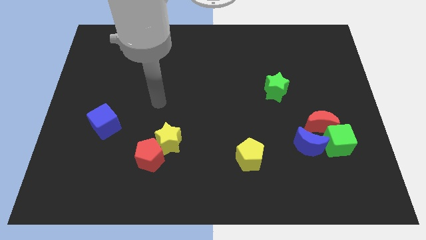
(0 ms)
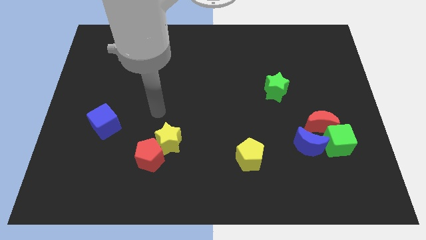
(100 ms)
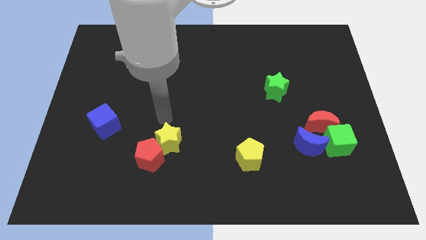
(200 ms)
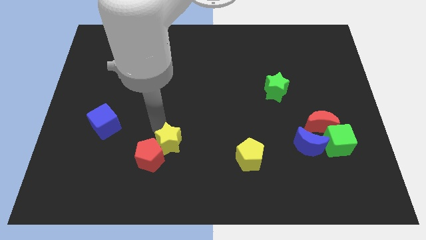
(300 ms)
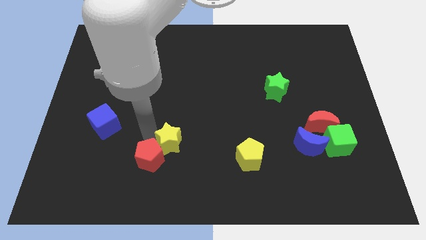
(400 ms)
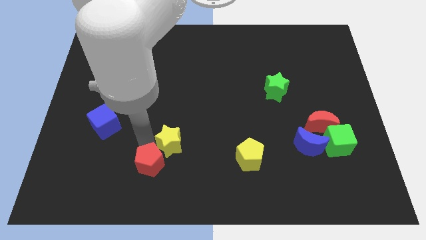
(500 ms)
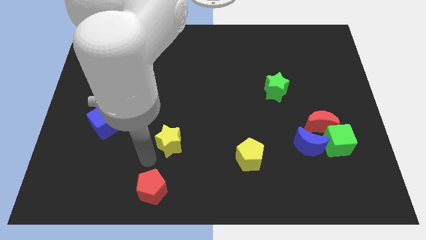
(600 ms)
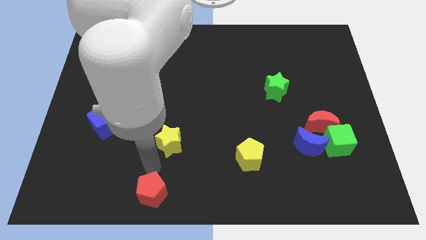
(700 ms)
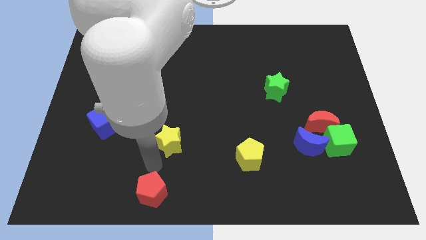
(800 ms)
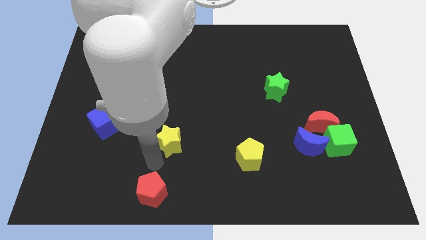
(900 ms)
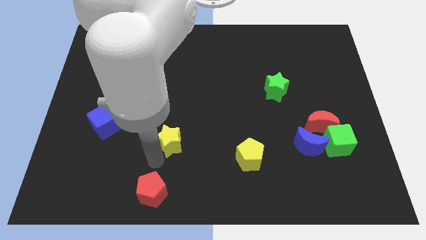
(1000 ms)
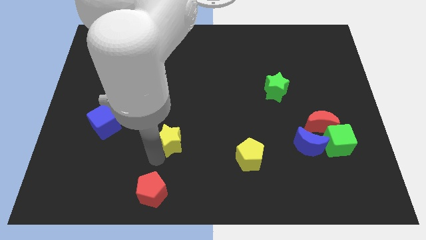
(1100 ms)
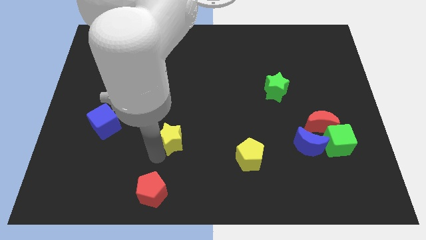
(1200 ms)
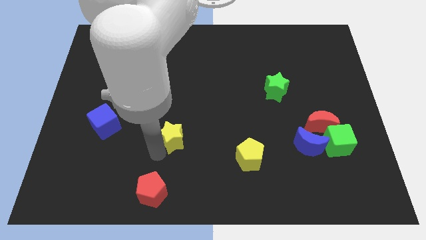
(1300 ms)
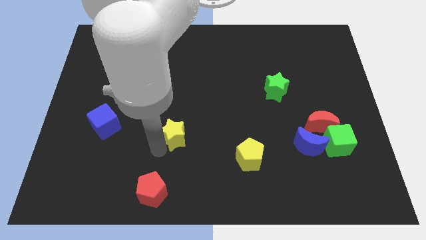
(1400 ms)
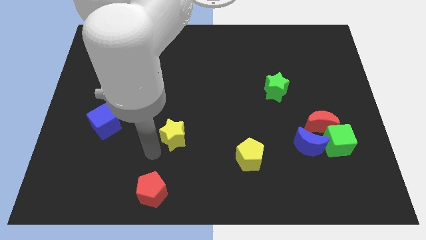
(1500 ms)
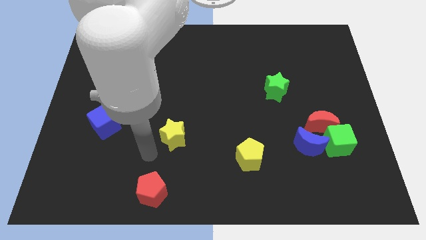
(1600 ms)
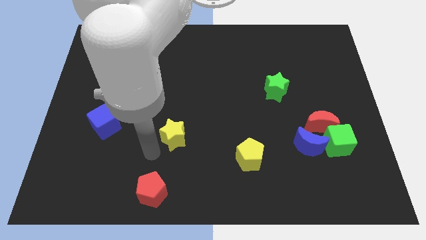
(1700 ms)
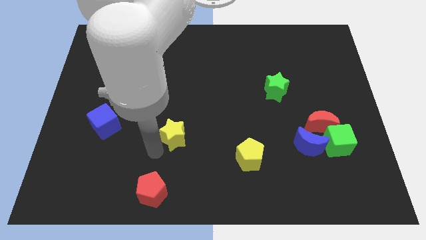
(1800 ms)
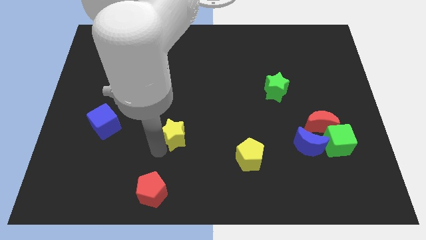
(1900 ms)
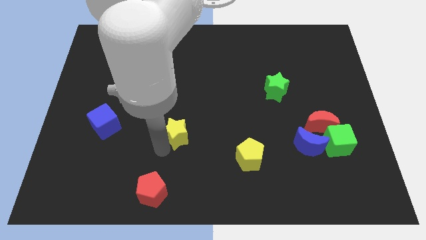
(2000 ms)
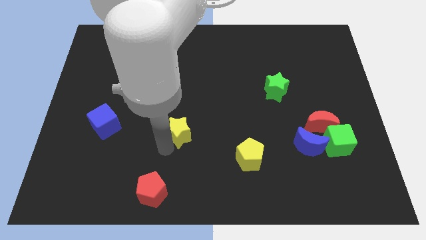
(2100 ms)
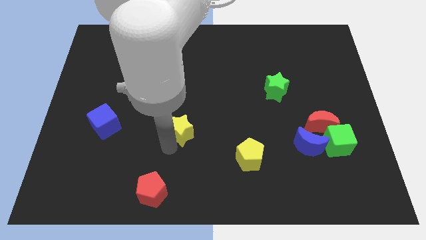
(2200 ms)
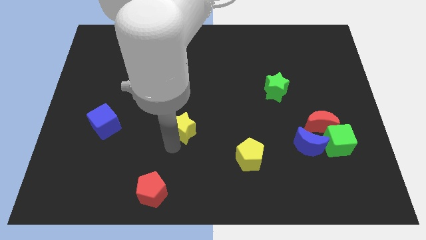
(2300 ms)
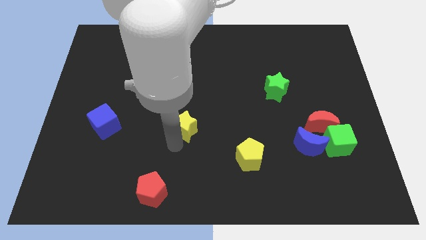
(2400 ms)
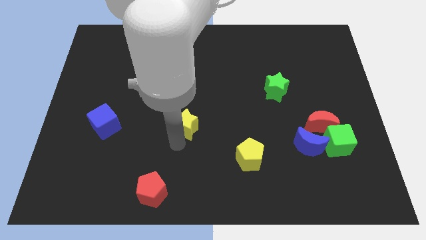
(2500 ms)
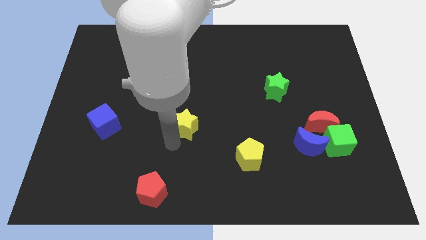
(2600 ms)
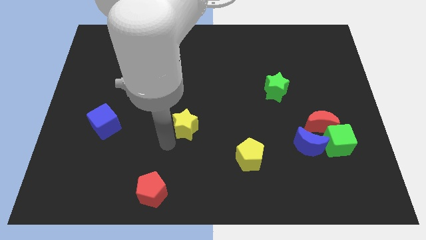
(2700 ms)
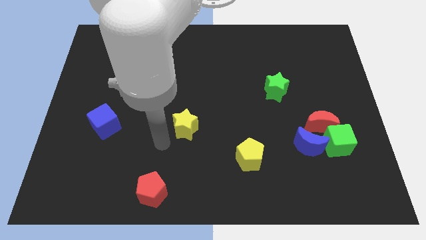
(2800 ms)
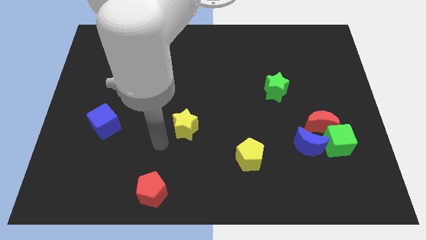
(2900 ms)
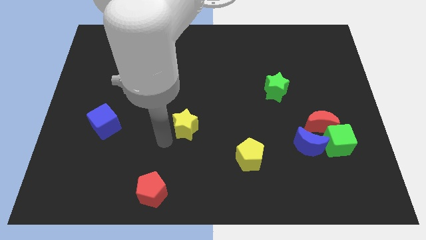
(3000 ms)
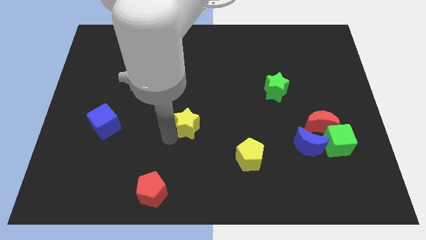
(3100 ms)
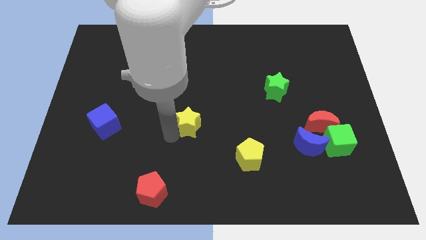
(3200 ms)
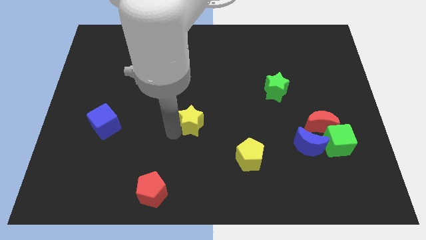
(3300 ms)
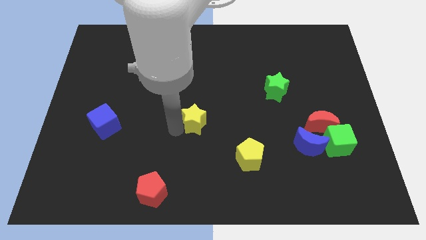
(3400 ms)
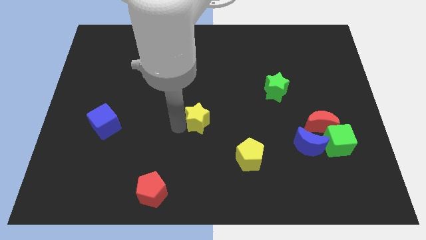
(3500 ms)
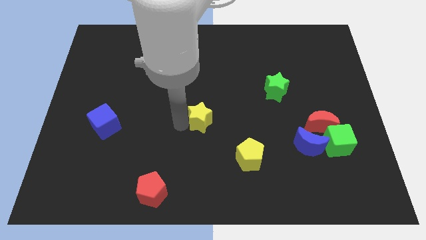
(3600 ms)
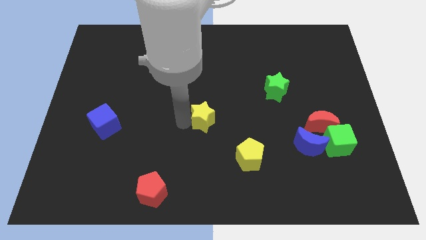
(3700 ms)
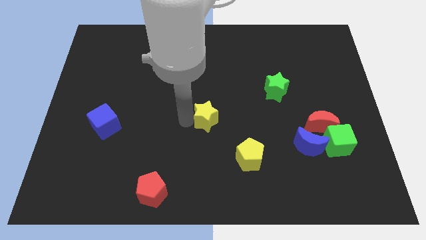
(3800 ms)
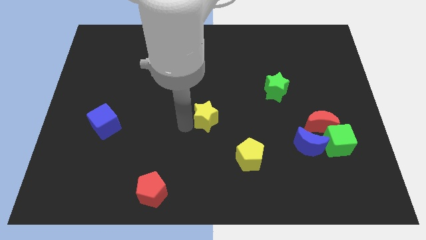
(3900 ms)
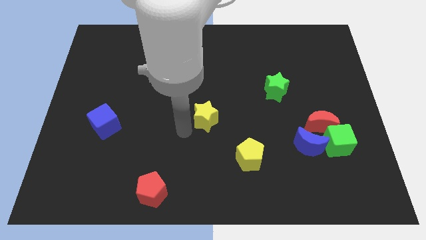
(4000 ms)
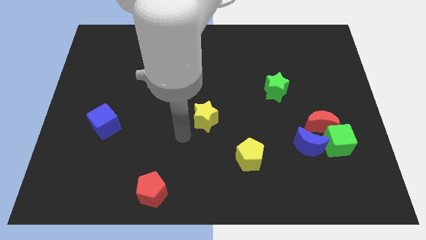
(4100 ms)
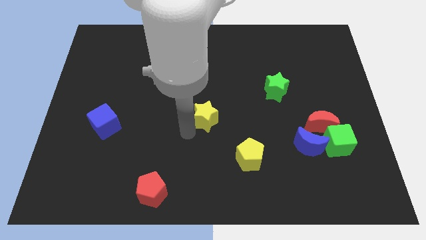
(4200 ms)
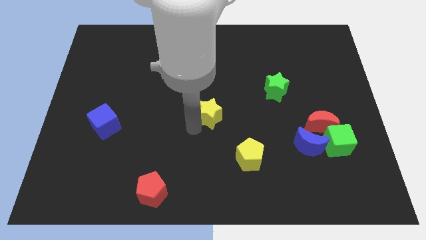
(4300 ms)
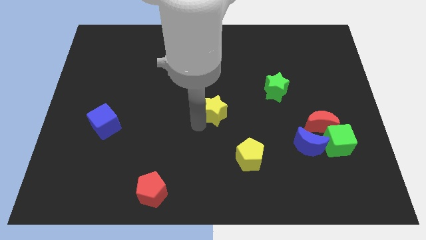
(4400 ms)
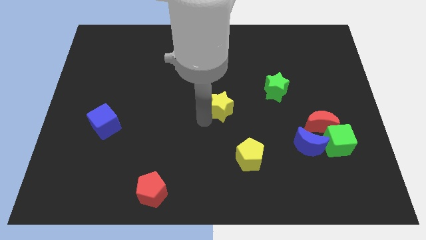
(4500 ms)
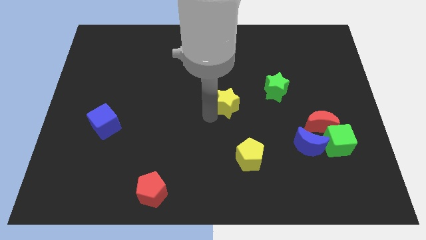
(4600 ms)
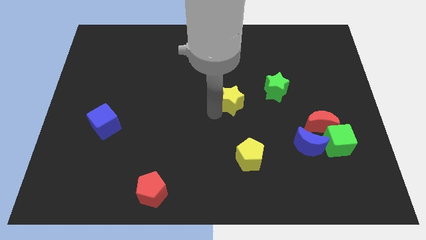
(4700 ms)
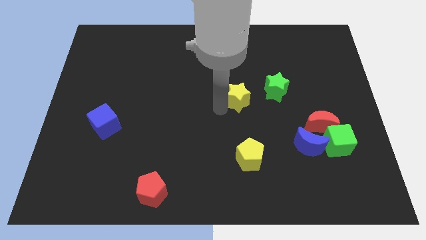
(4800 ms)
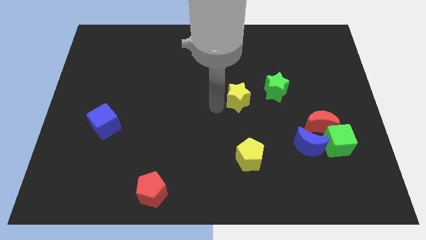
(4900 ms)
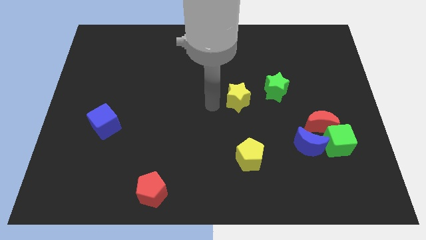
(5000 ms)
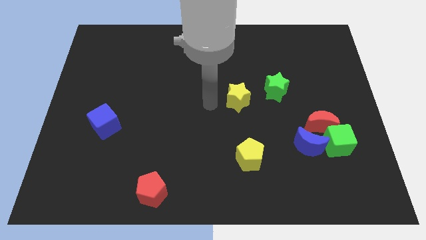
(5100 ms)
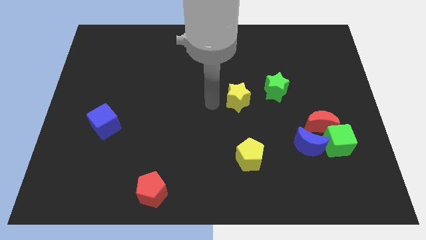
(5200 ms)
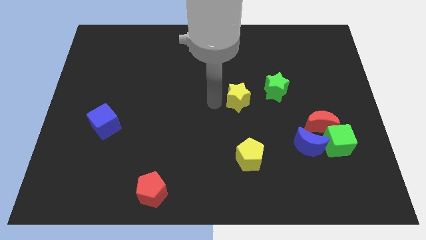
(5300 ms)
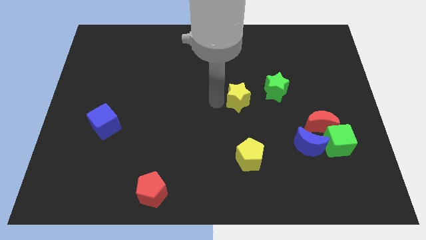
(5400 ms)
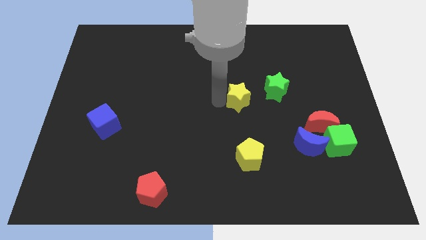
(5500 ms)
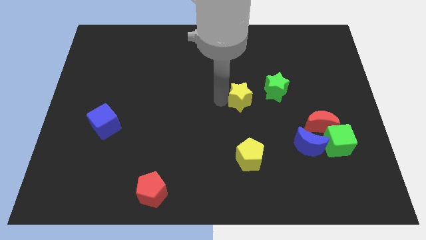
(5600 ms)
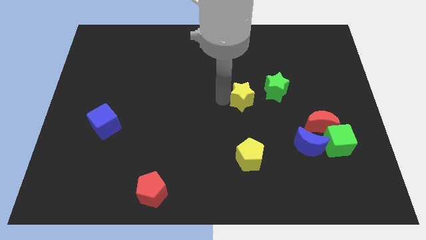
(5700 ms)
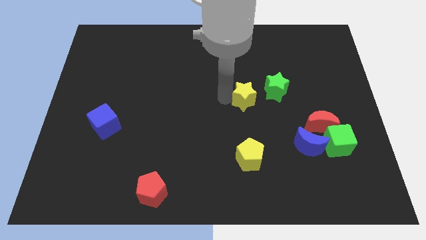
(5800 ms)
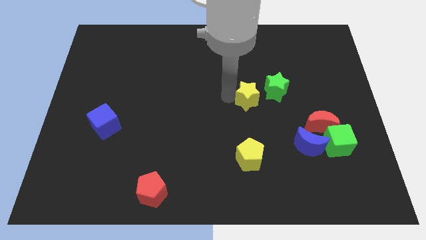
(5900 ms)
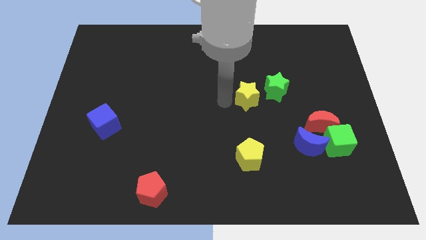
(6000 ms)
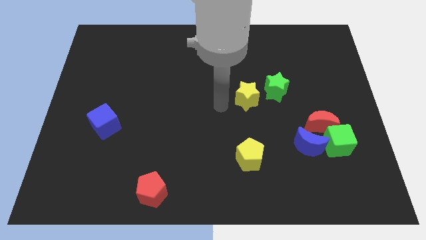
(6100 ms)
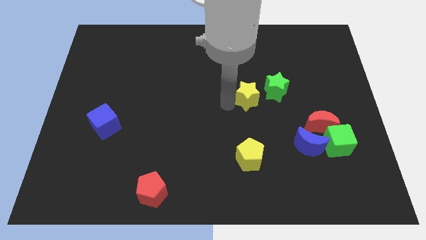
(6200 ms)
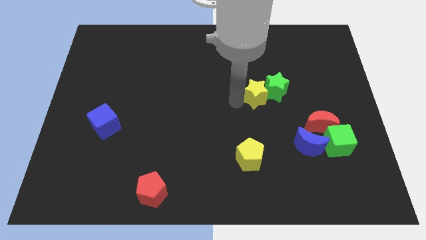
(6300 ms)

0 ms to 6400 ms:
put the yellow star close to the green star

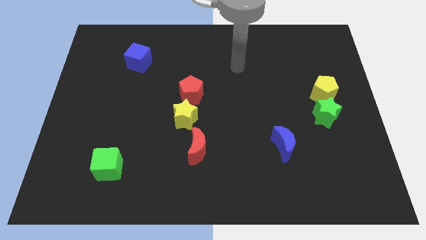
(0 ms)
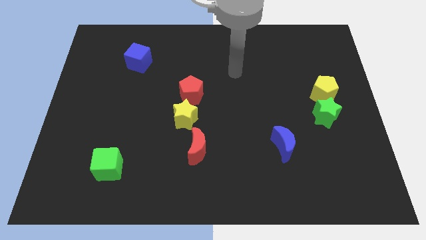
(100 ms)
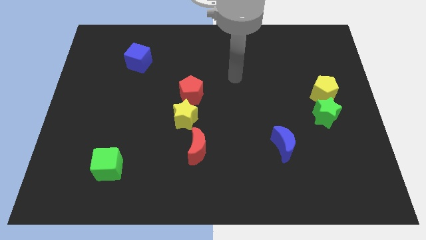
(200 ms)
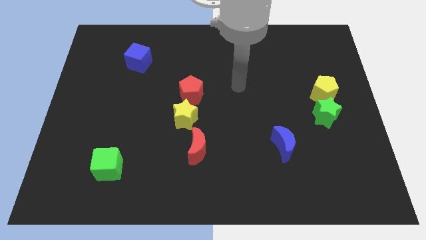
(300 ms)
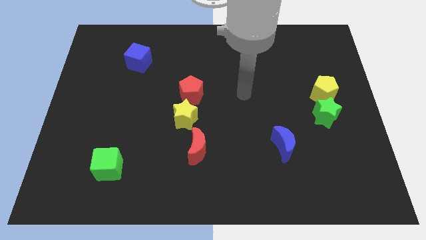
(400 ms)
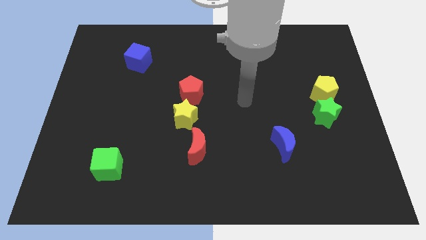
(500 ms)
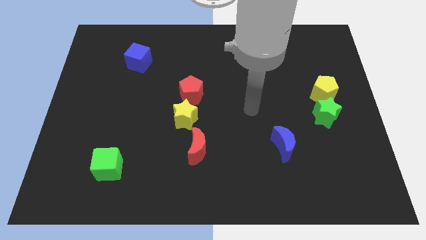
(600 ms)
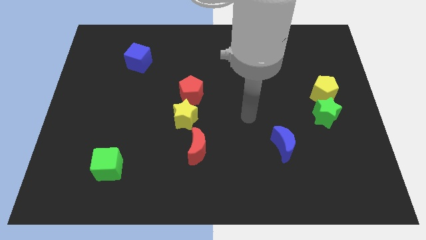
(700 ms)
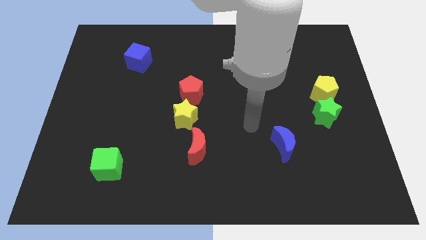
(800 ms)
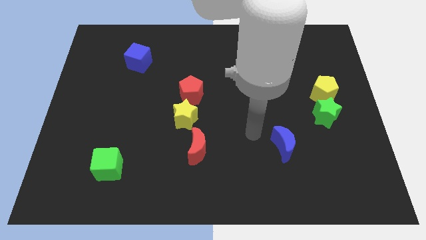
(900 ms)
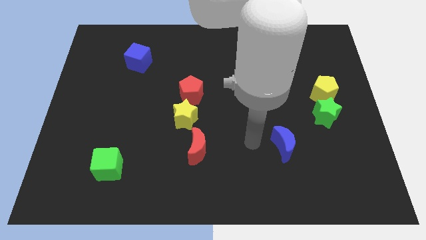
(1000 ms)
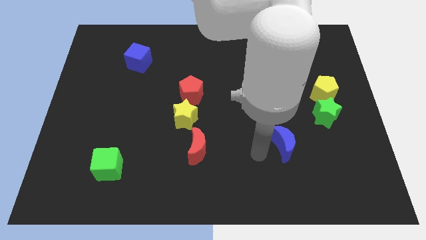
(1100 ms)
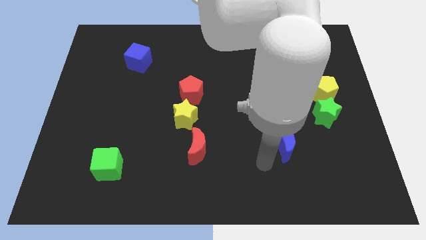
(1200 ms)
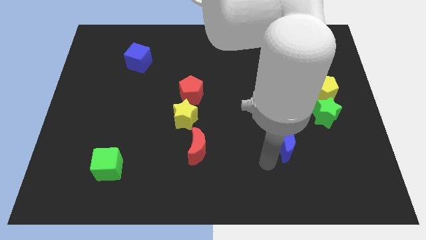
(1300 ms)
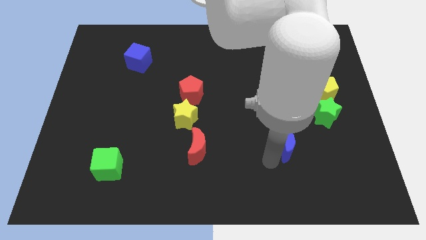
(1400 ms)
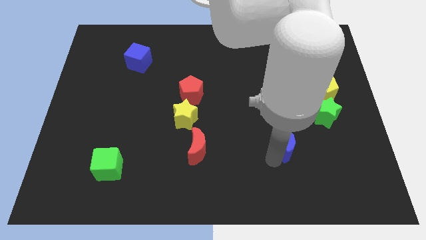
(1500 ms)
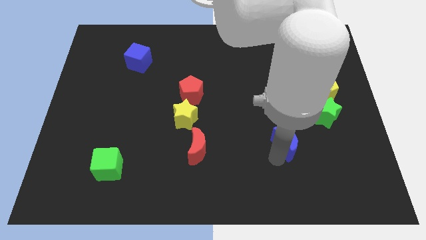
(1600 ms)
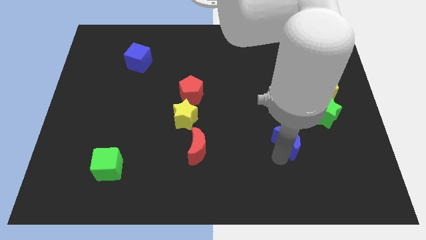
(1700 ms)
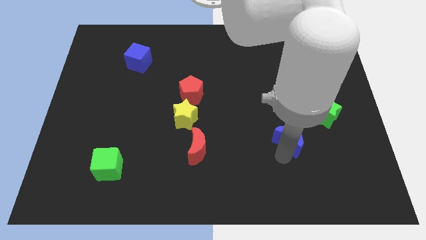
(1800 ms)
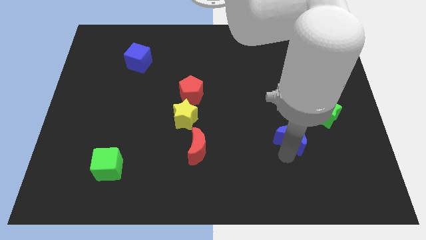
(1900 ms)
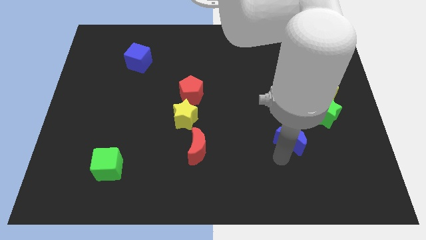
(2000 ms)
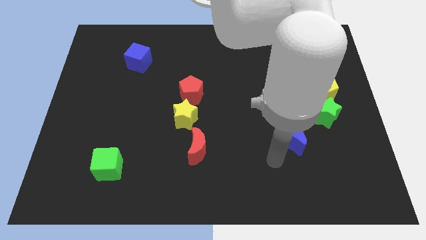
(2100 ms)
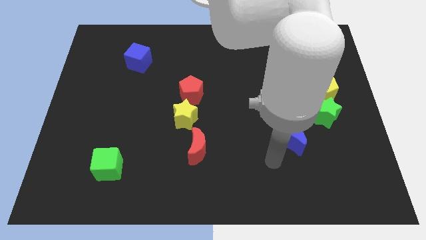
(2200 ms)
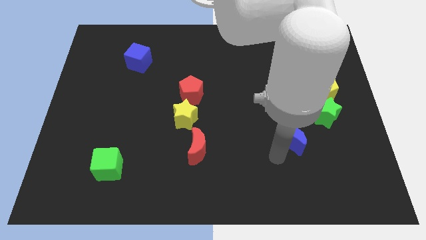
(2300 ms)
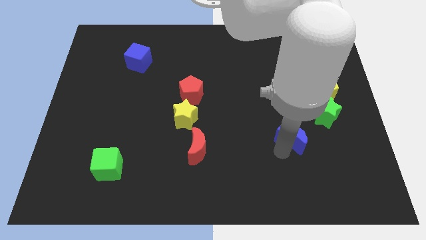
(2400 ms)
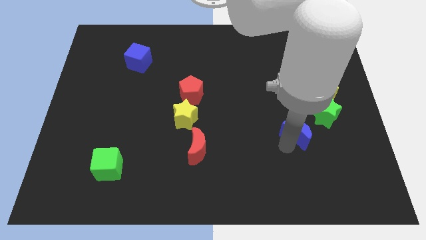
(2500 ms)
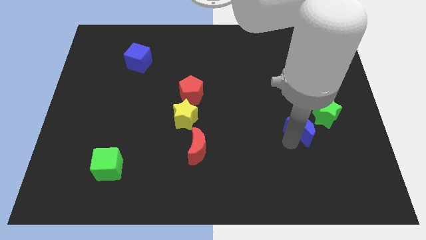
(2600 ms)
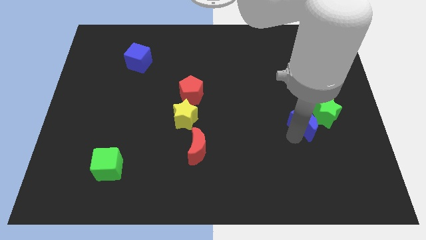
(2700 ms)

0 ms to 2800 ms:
push the blue moon next to the green star
